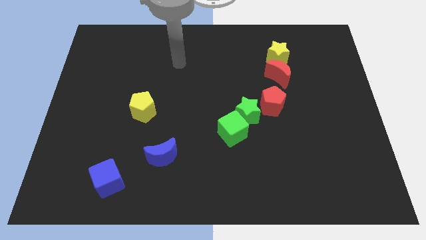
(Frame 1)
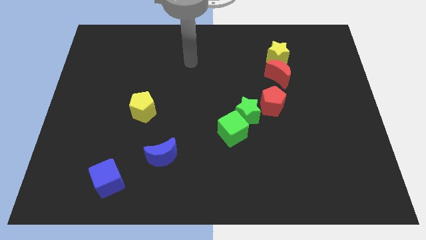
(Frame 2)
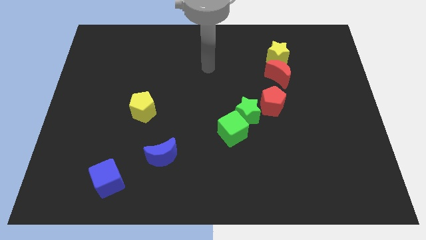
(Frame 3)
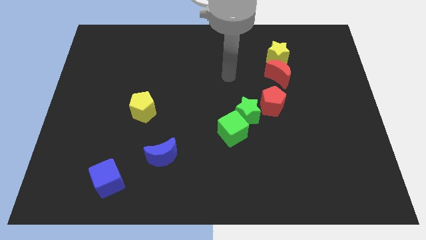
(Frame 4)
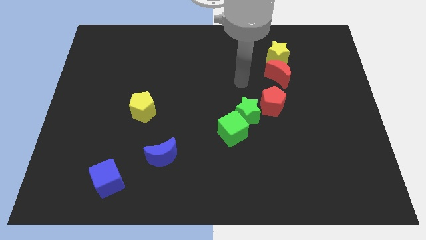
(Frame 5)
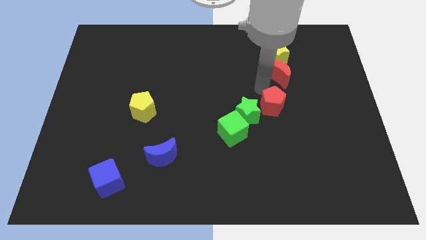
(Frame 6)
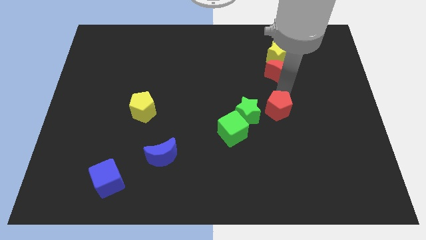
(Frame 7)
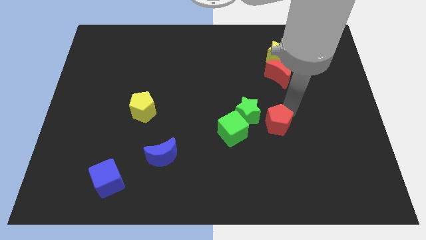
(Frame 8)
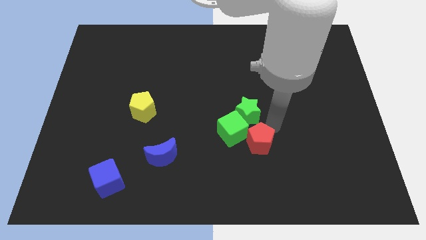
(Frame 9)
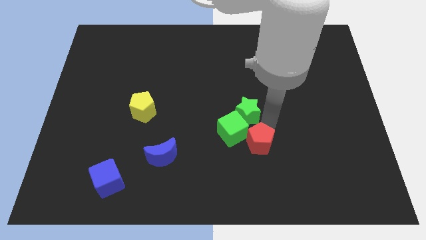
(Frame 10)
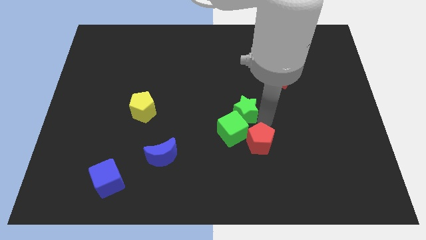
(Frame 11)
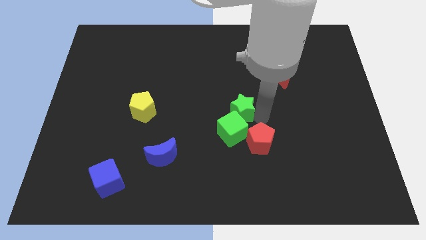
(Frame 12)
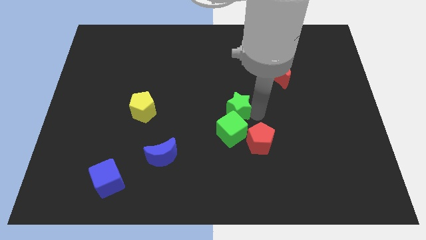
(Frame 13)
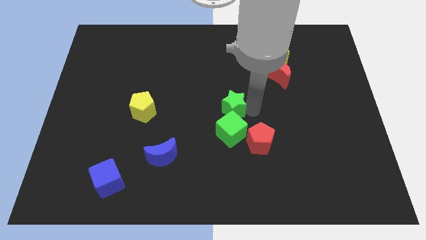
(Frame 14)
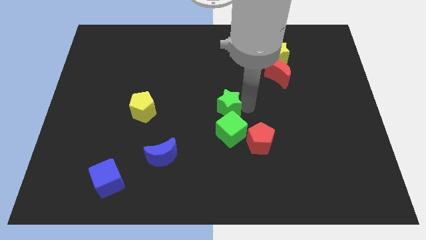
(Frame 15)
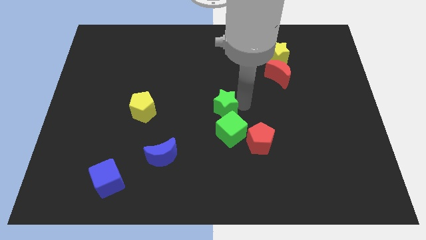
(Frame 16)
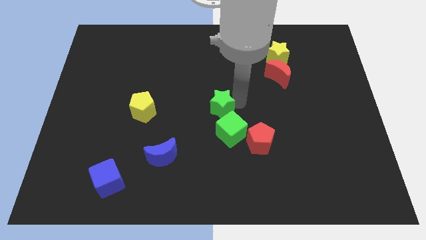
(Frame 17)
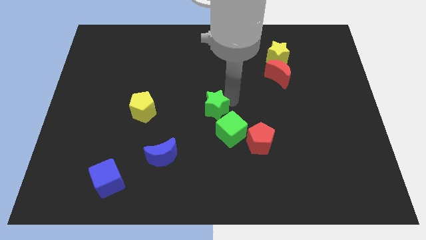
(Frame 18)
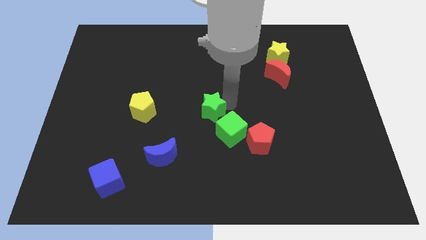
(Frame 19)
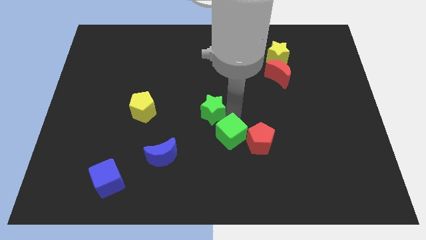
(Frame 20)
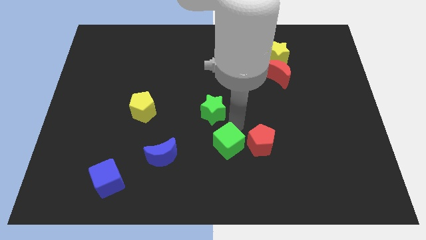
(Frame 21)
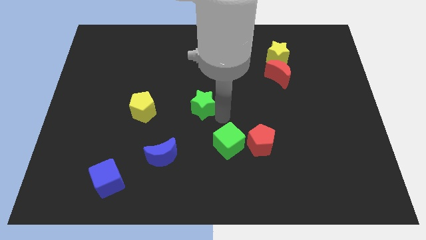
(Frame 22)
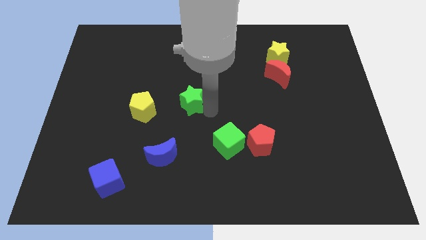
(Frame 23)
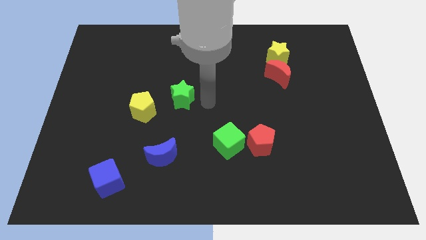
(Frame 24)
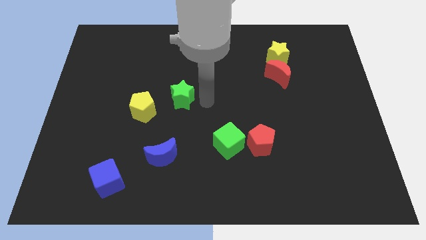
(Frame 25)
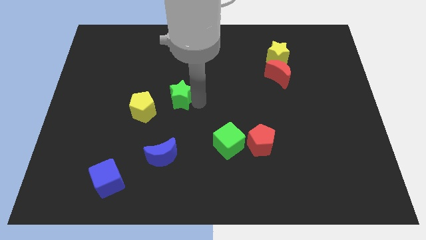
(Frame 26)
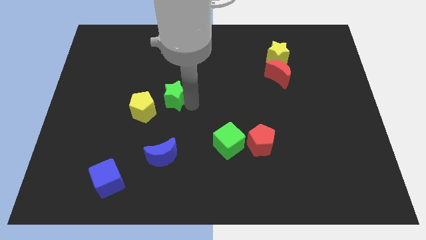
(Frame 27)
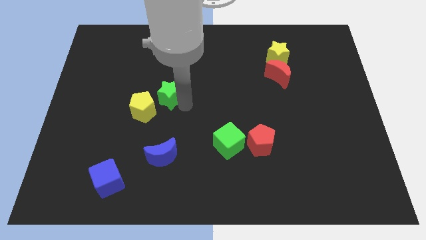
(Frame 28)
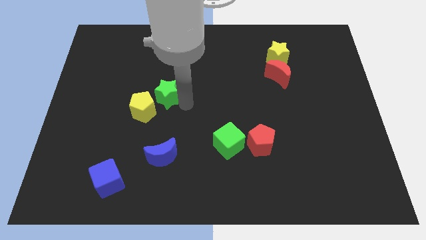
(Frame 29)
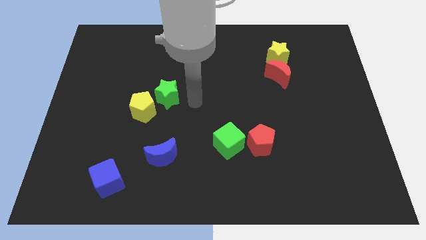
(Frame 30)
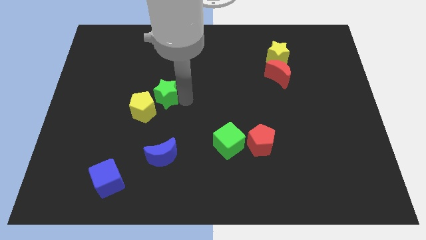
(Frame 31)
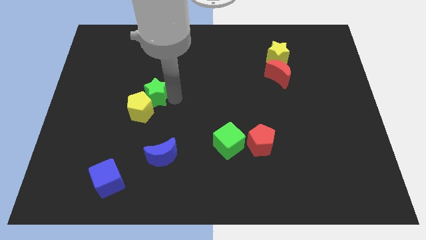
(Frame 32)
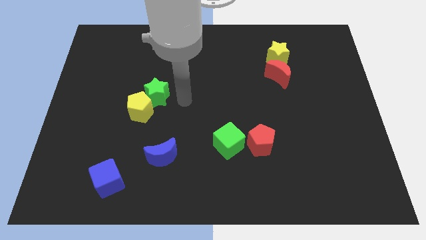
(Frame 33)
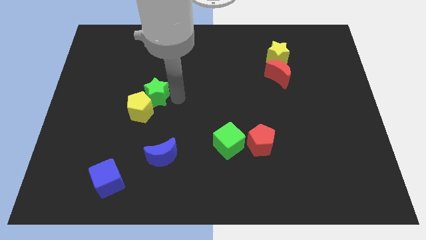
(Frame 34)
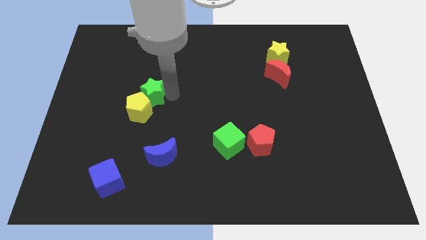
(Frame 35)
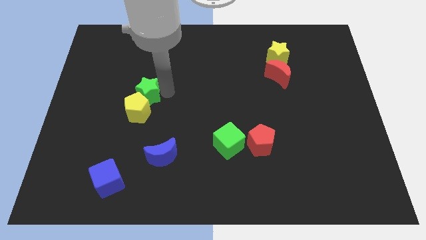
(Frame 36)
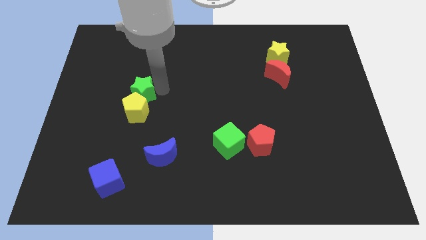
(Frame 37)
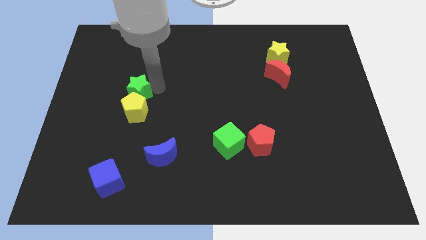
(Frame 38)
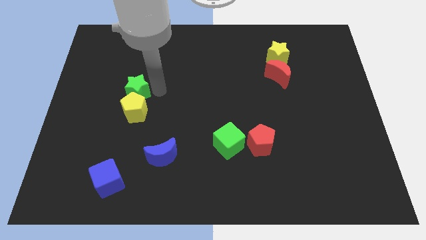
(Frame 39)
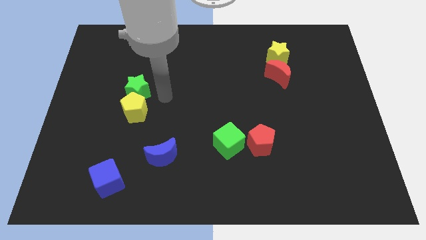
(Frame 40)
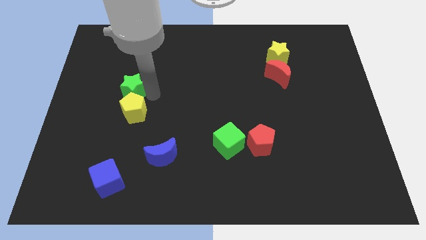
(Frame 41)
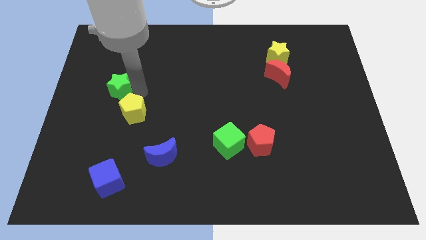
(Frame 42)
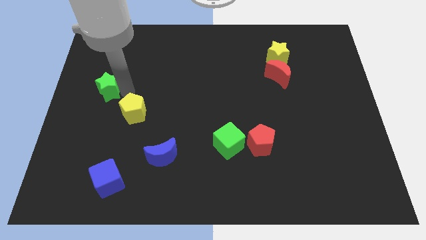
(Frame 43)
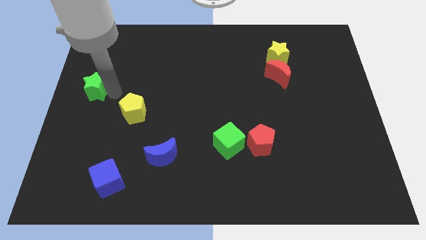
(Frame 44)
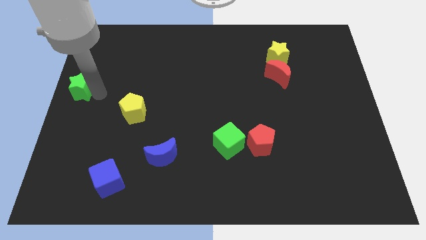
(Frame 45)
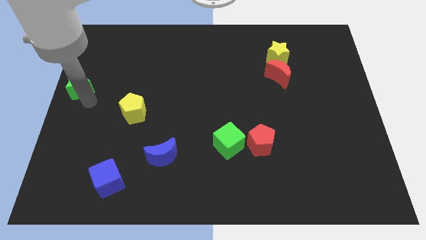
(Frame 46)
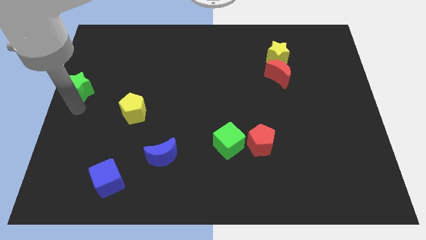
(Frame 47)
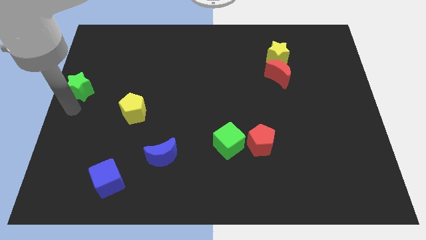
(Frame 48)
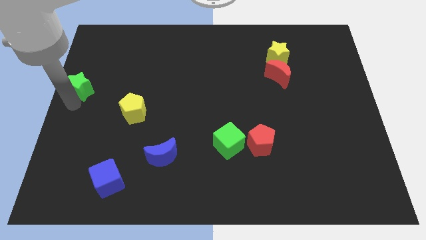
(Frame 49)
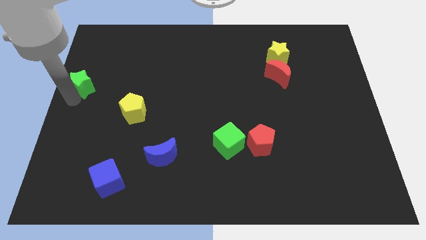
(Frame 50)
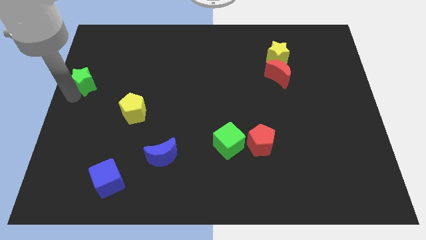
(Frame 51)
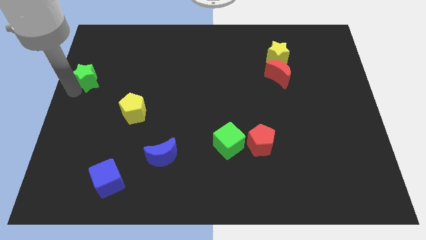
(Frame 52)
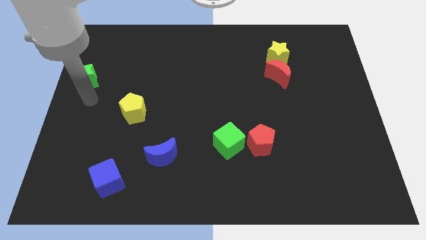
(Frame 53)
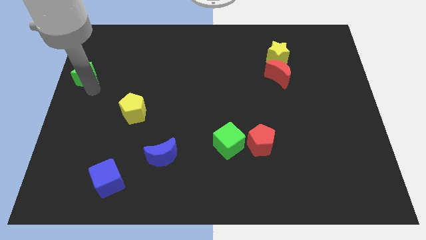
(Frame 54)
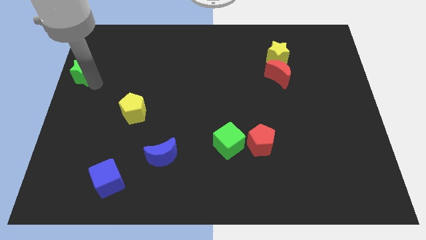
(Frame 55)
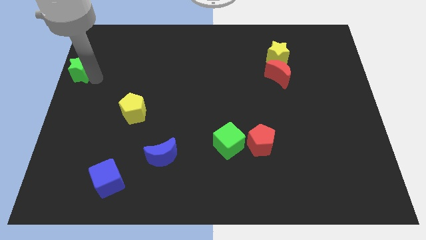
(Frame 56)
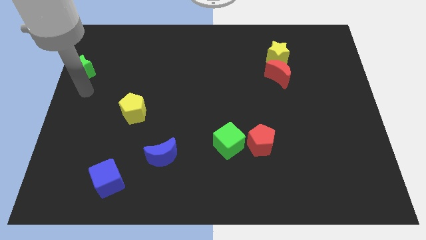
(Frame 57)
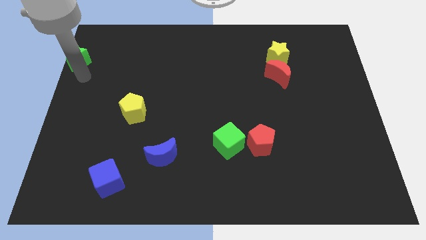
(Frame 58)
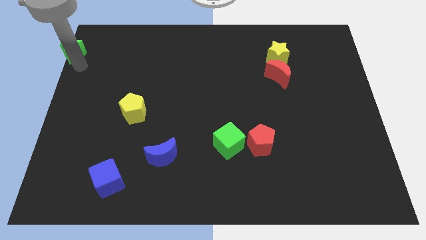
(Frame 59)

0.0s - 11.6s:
put the green star to the top left of the board

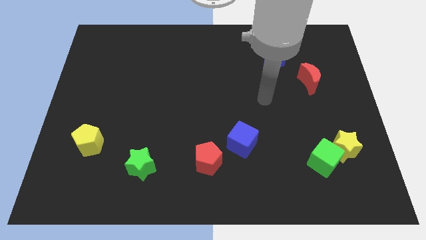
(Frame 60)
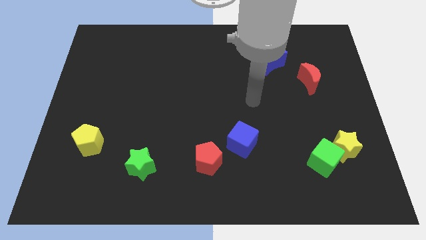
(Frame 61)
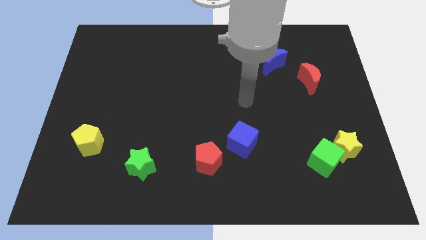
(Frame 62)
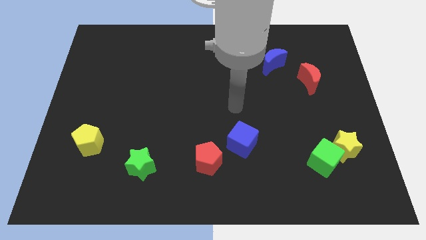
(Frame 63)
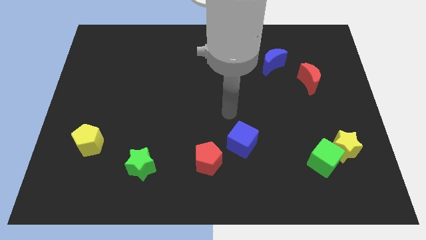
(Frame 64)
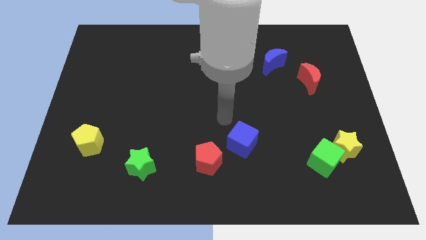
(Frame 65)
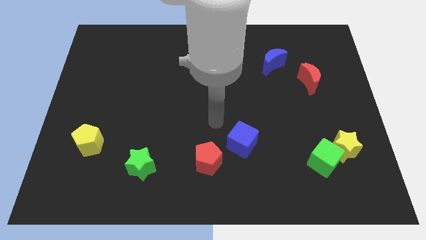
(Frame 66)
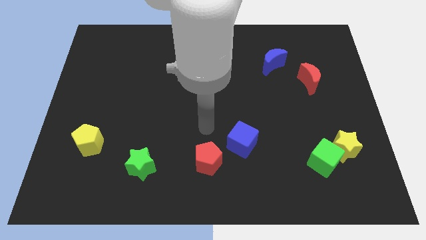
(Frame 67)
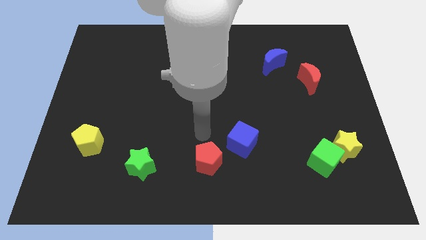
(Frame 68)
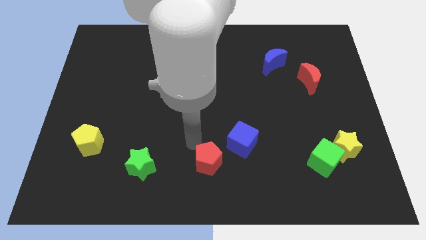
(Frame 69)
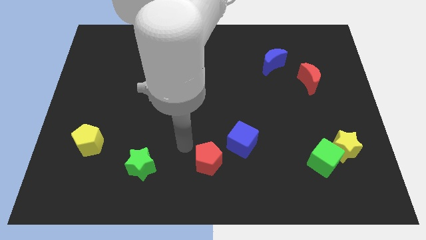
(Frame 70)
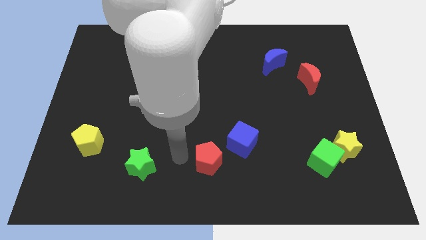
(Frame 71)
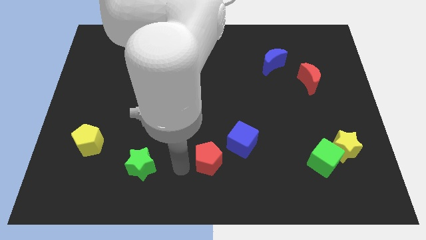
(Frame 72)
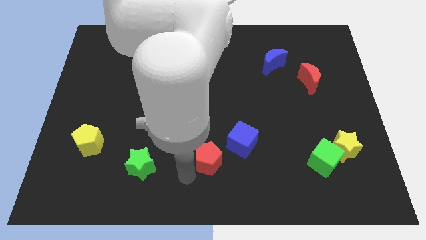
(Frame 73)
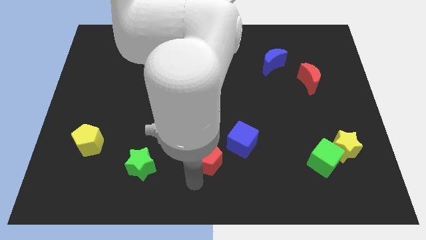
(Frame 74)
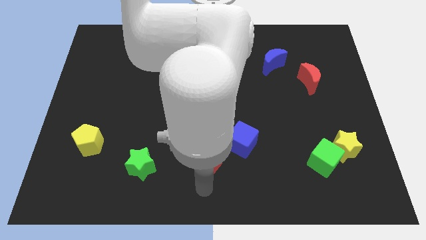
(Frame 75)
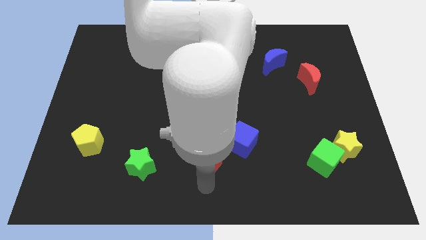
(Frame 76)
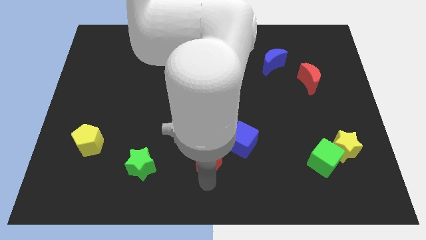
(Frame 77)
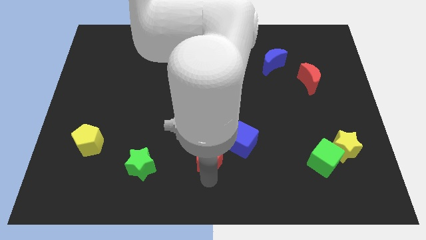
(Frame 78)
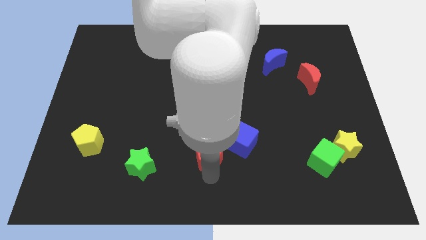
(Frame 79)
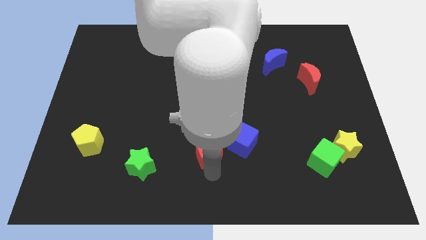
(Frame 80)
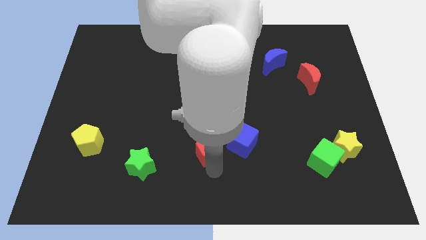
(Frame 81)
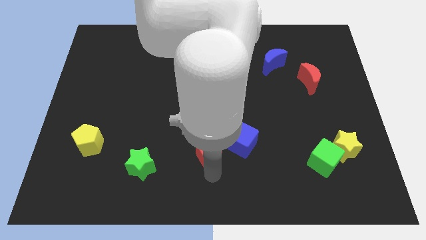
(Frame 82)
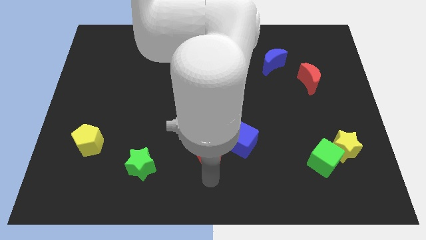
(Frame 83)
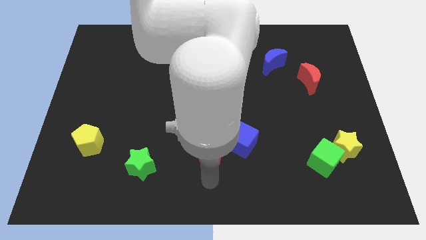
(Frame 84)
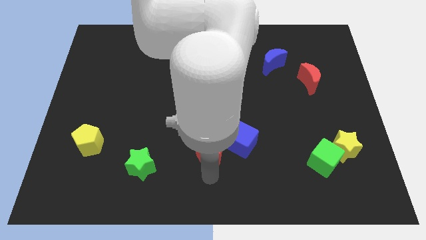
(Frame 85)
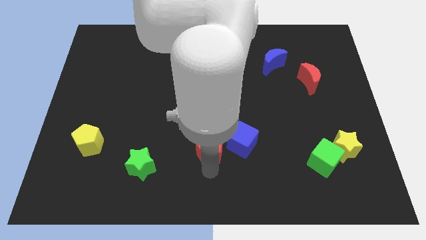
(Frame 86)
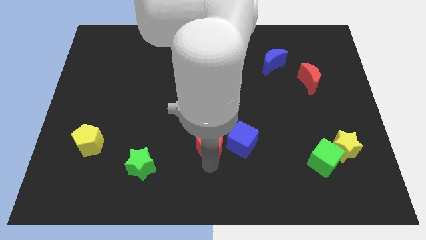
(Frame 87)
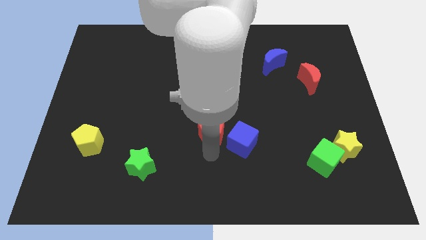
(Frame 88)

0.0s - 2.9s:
move the red pentagon to the middle
